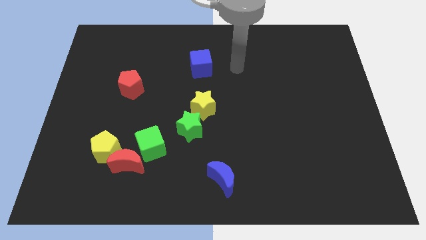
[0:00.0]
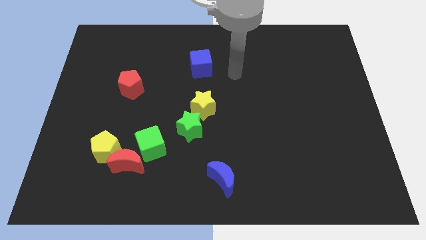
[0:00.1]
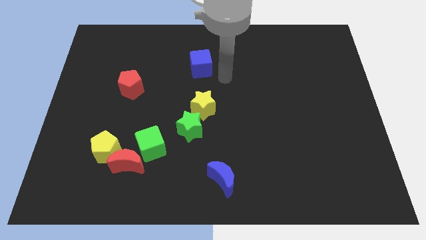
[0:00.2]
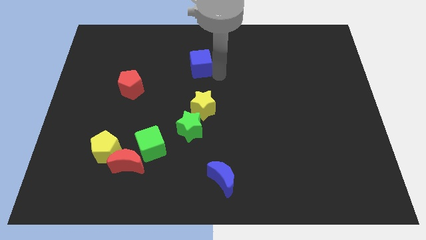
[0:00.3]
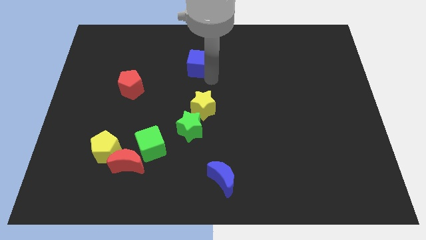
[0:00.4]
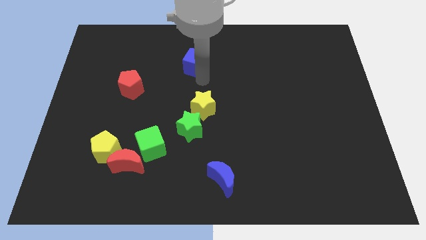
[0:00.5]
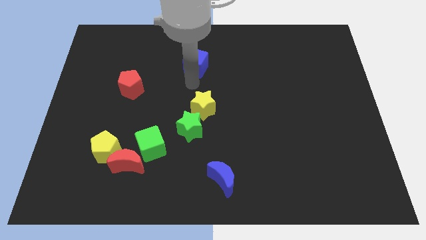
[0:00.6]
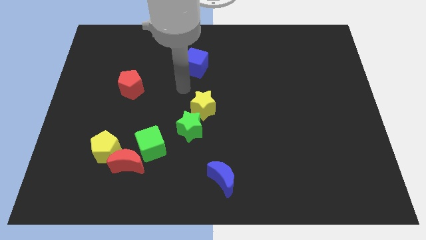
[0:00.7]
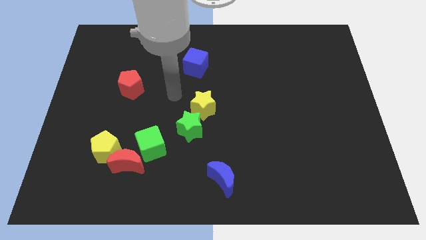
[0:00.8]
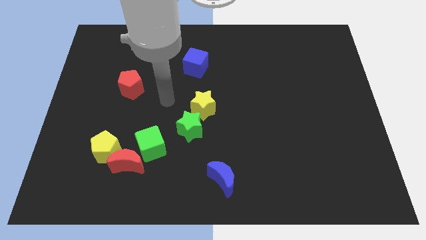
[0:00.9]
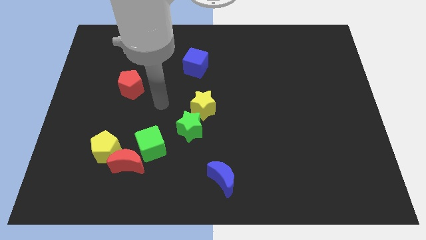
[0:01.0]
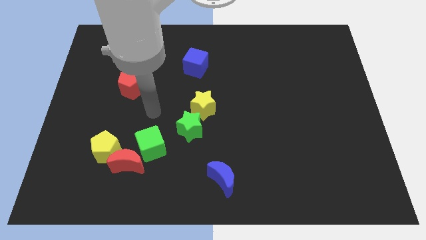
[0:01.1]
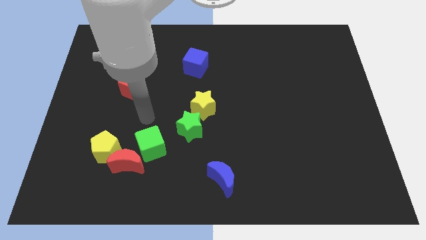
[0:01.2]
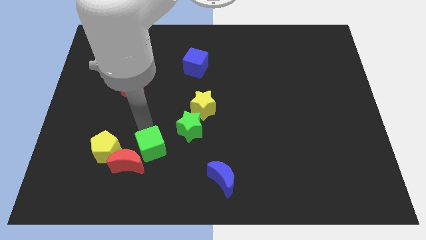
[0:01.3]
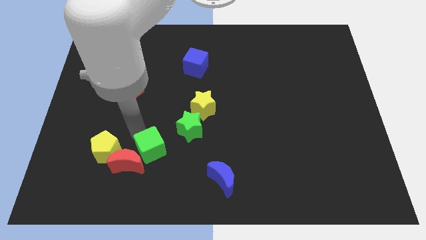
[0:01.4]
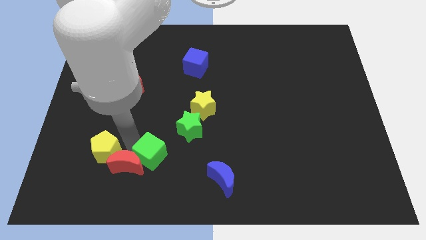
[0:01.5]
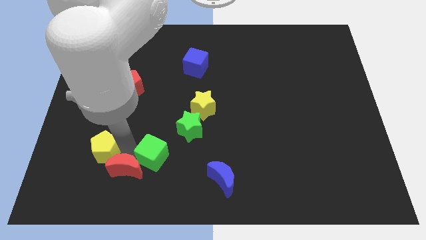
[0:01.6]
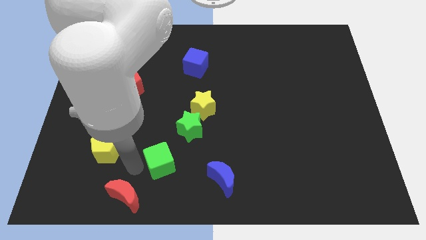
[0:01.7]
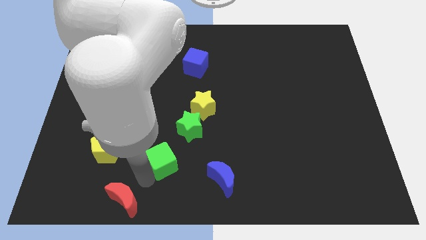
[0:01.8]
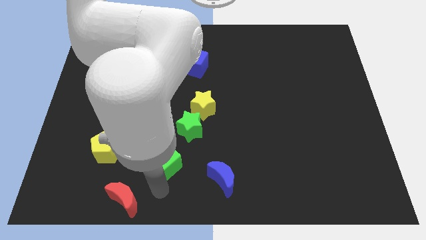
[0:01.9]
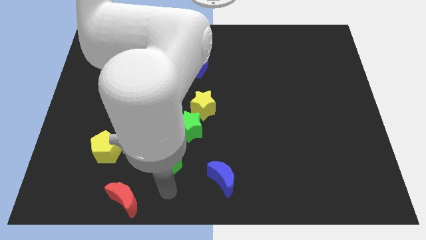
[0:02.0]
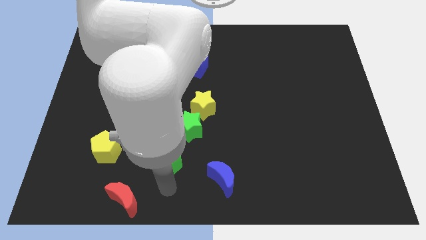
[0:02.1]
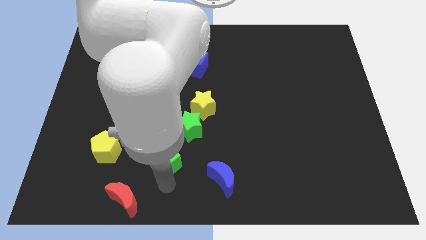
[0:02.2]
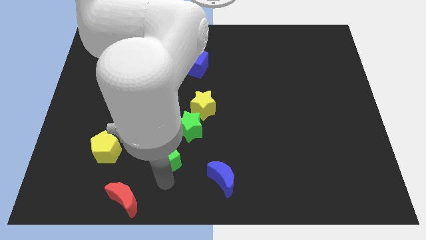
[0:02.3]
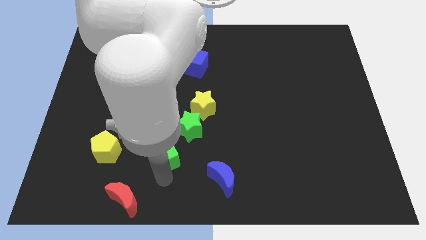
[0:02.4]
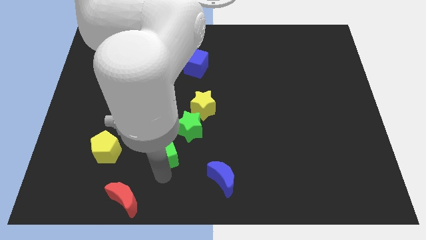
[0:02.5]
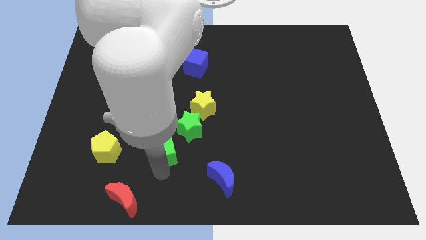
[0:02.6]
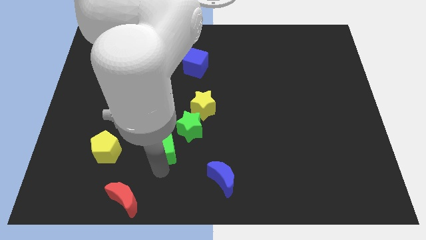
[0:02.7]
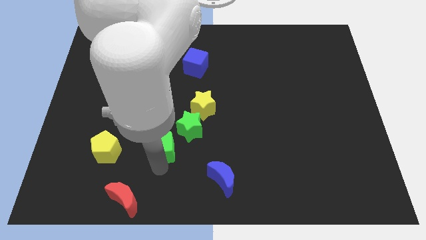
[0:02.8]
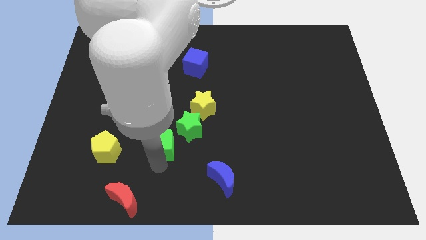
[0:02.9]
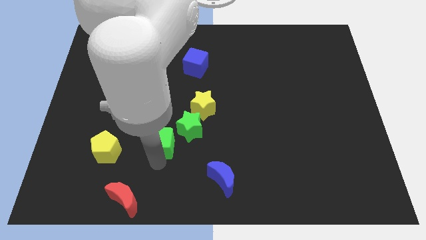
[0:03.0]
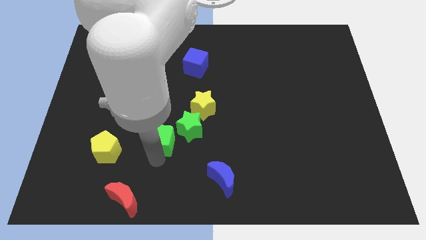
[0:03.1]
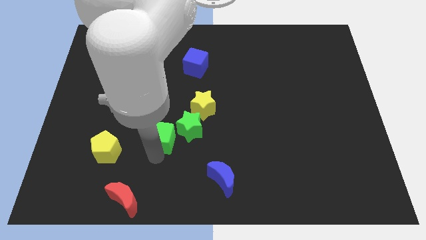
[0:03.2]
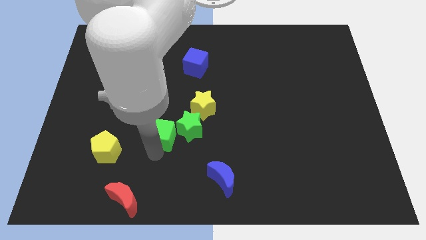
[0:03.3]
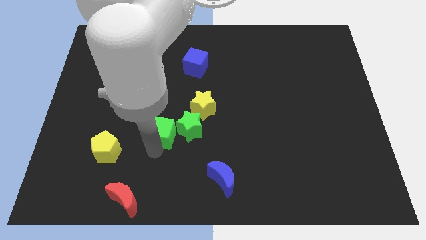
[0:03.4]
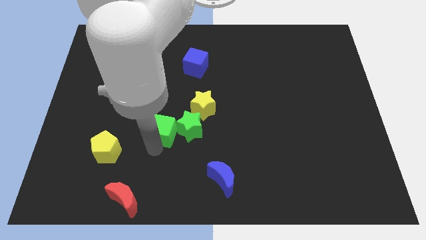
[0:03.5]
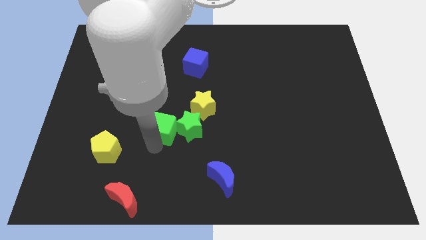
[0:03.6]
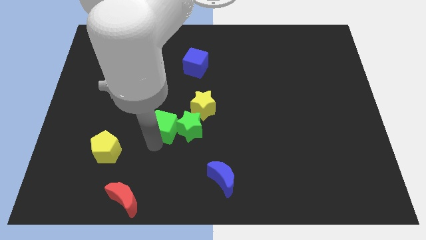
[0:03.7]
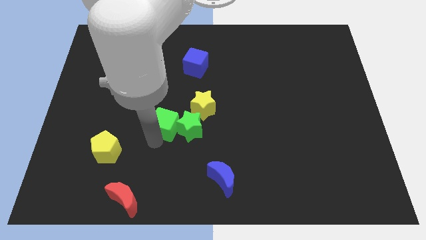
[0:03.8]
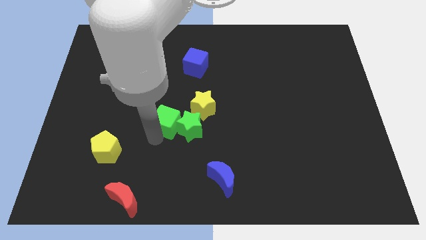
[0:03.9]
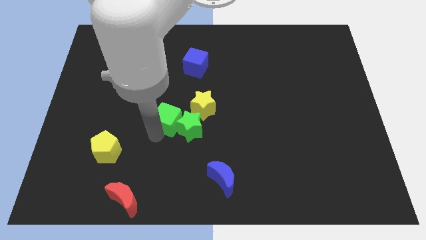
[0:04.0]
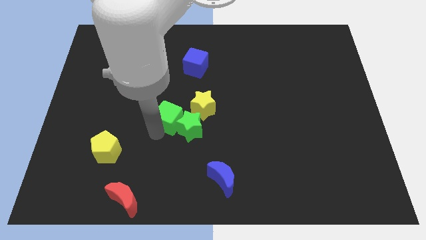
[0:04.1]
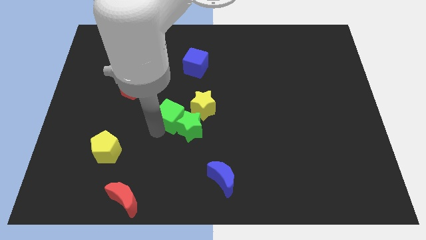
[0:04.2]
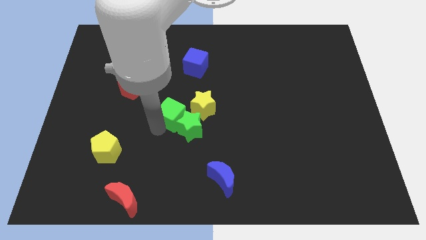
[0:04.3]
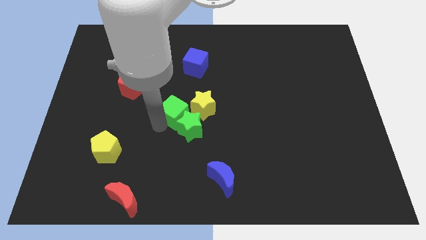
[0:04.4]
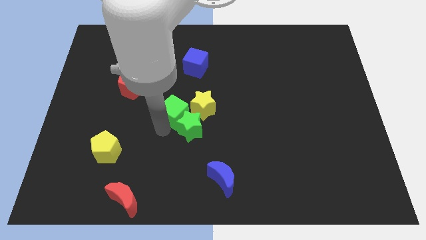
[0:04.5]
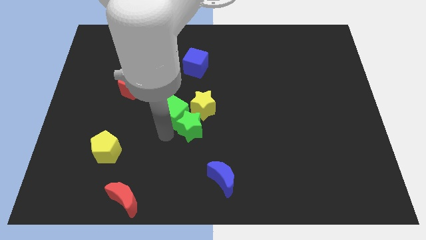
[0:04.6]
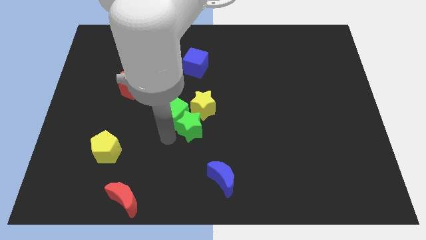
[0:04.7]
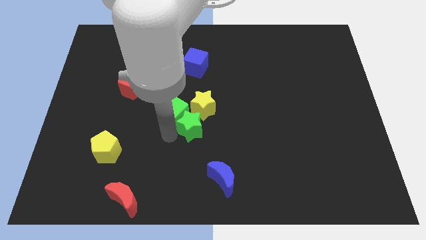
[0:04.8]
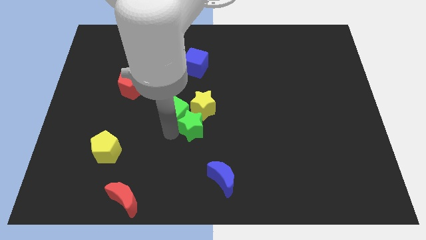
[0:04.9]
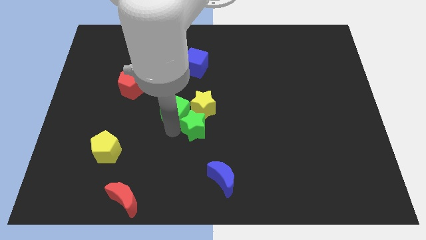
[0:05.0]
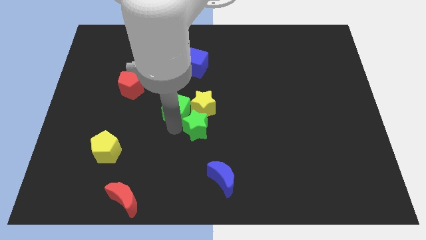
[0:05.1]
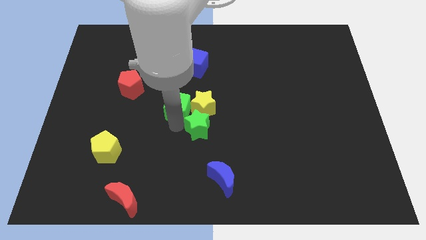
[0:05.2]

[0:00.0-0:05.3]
move the green cube to the top left of the yellow star

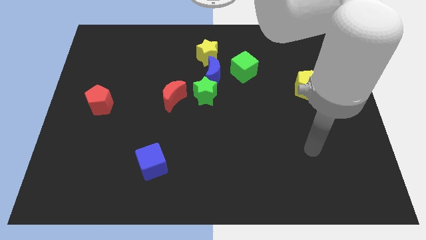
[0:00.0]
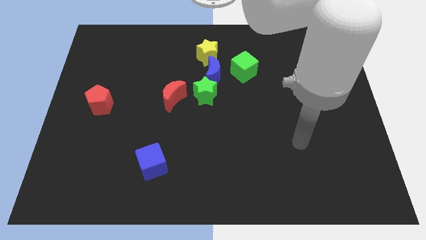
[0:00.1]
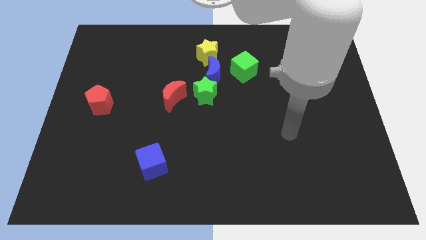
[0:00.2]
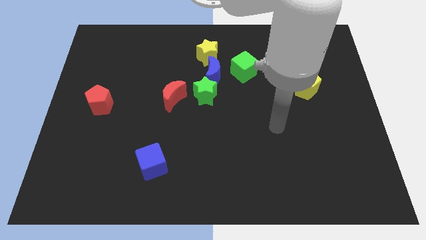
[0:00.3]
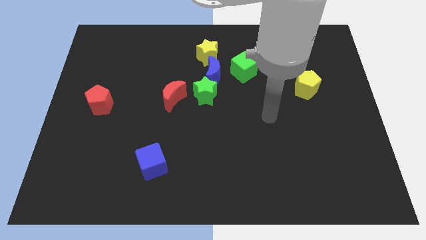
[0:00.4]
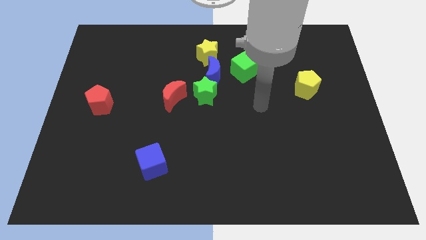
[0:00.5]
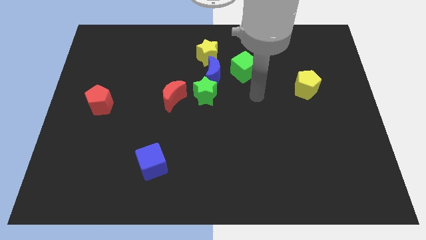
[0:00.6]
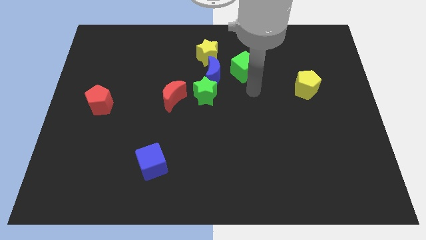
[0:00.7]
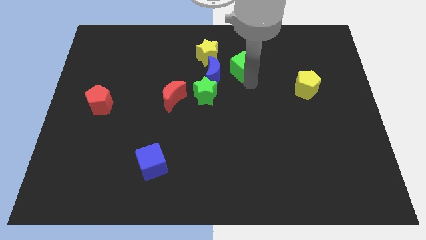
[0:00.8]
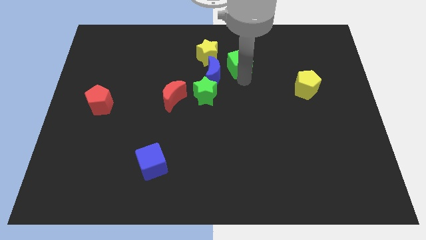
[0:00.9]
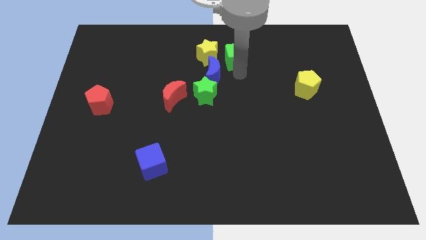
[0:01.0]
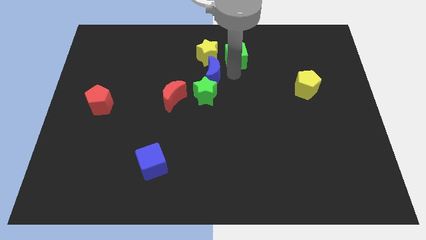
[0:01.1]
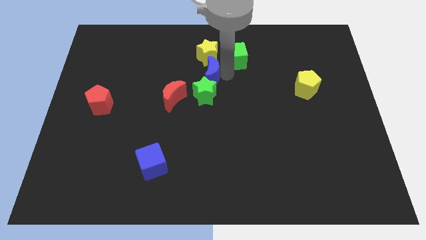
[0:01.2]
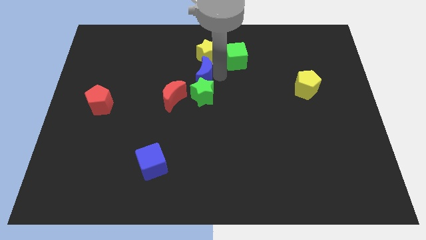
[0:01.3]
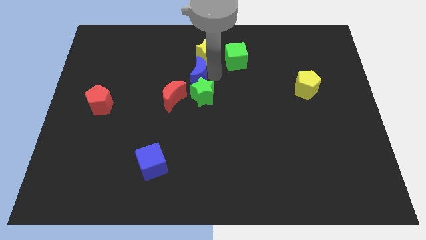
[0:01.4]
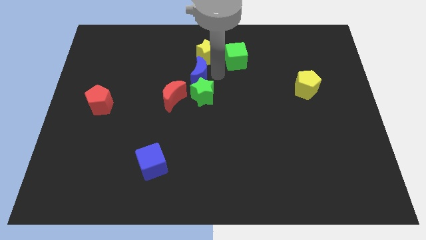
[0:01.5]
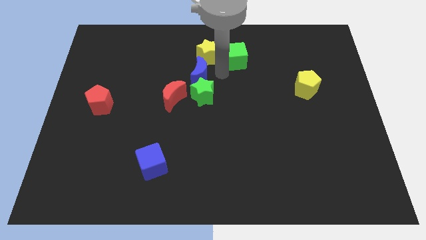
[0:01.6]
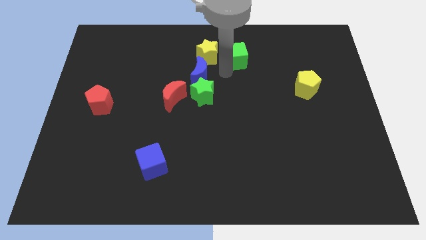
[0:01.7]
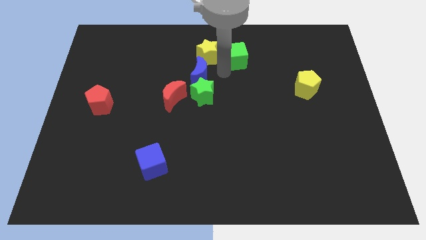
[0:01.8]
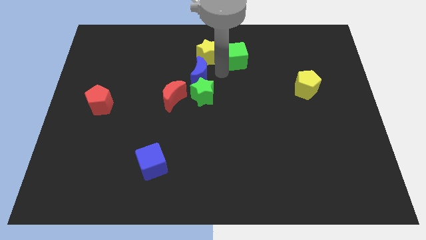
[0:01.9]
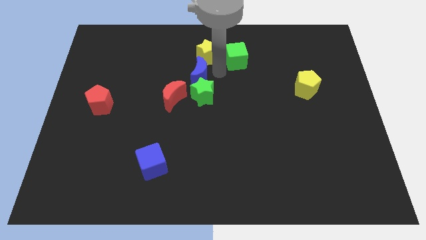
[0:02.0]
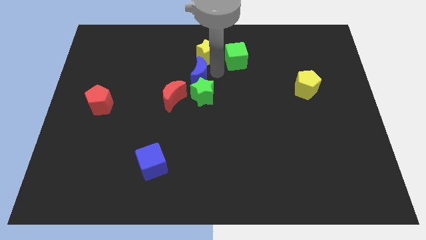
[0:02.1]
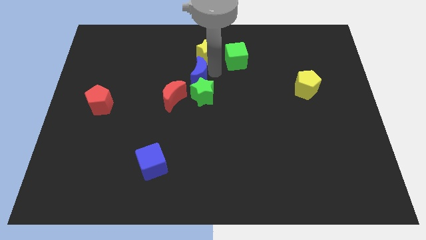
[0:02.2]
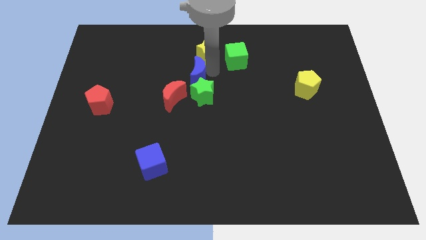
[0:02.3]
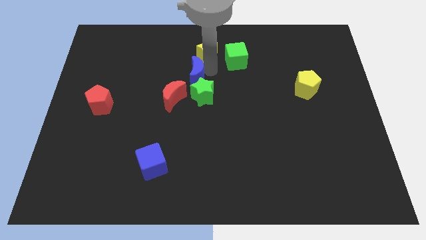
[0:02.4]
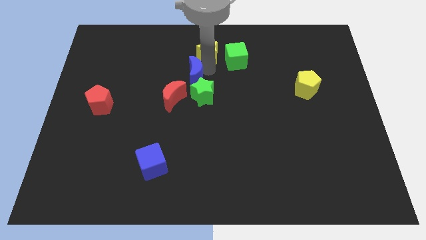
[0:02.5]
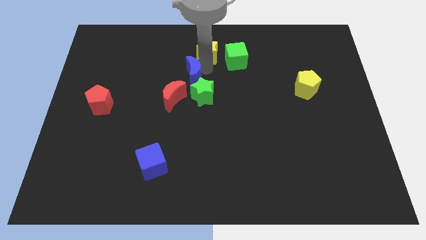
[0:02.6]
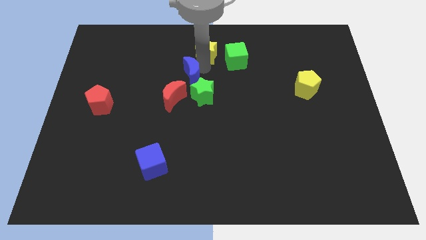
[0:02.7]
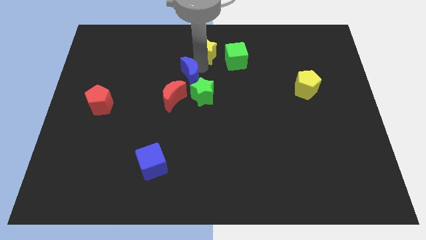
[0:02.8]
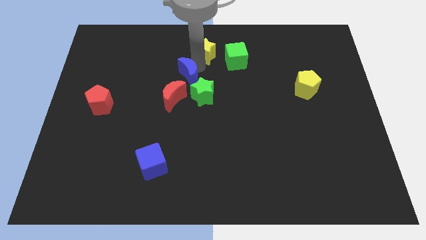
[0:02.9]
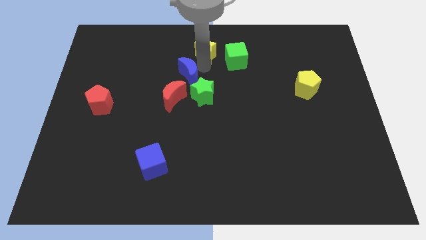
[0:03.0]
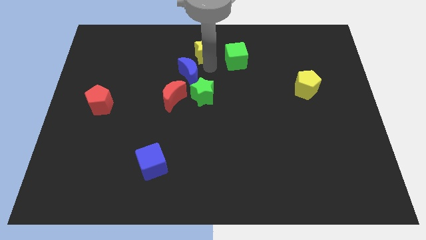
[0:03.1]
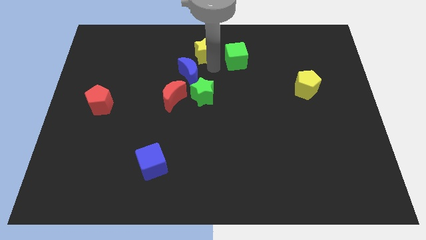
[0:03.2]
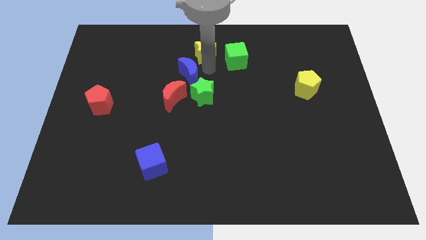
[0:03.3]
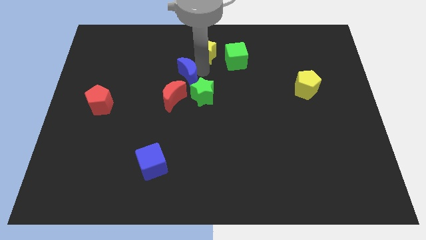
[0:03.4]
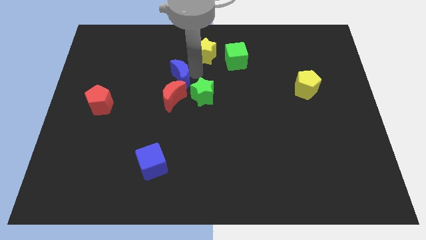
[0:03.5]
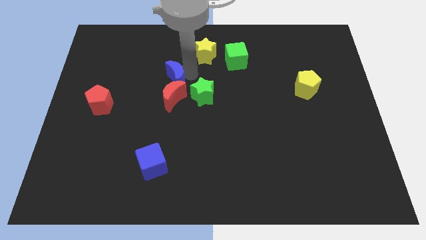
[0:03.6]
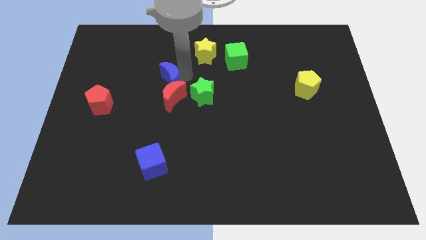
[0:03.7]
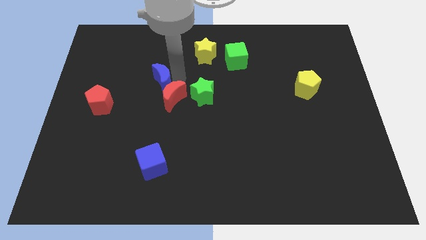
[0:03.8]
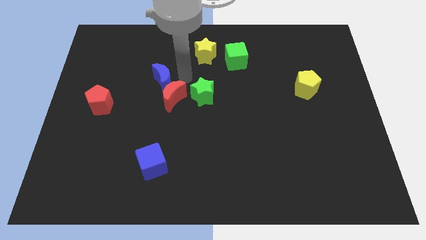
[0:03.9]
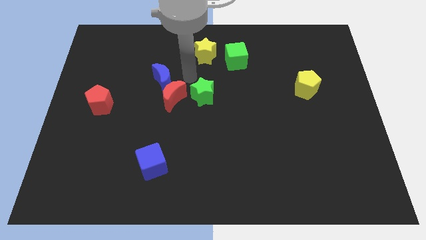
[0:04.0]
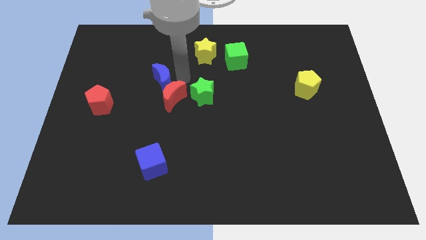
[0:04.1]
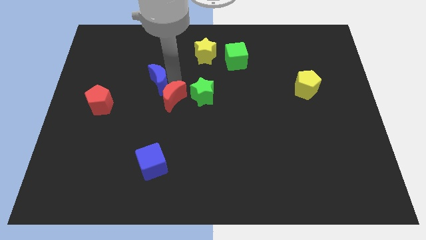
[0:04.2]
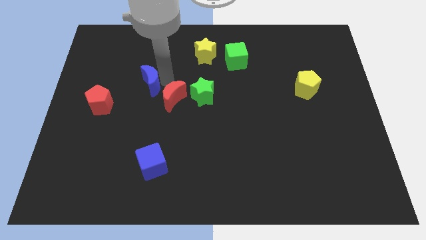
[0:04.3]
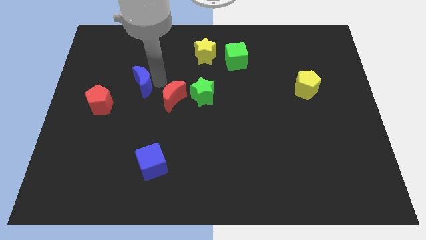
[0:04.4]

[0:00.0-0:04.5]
push the blue moon to the top right side of the red pentagon
